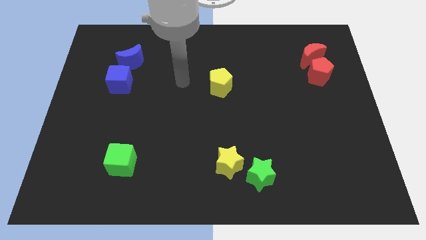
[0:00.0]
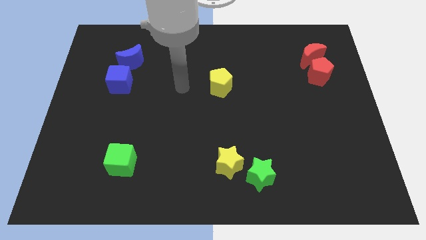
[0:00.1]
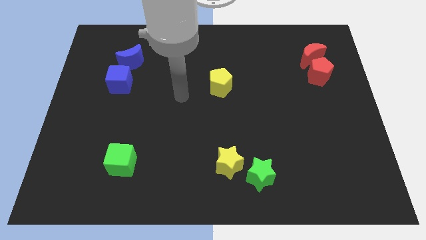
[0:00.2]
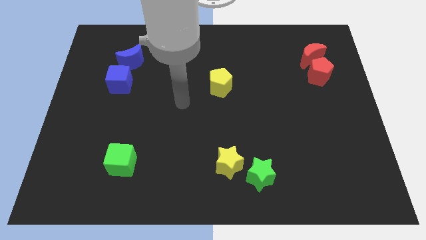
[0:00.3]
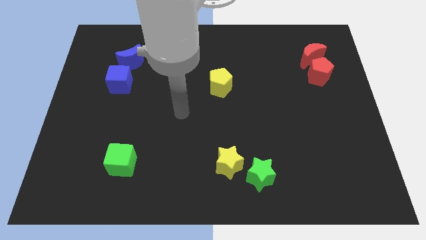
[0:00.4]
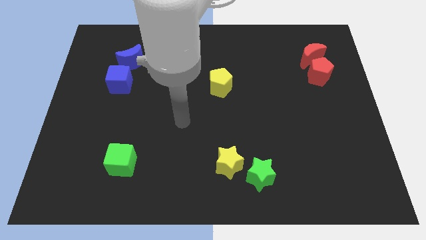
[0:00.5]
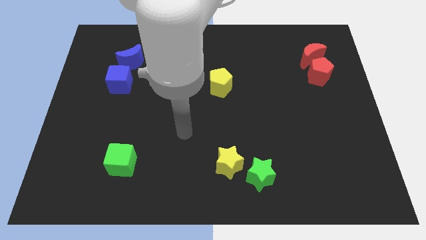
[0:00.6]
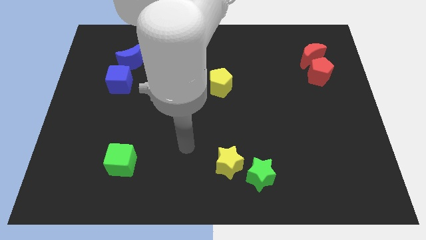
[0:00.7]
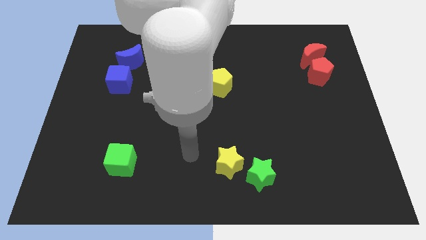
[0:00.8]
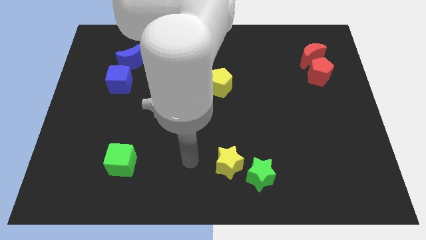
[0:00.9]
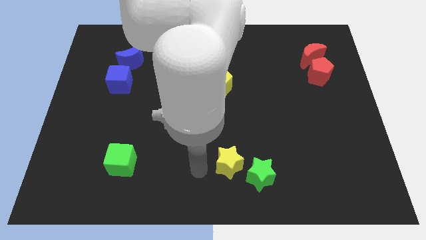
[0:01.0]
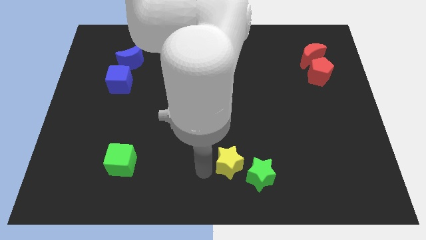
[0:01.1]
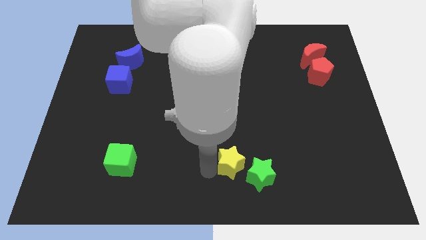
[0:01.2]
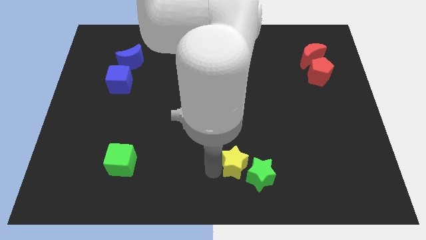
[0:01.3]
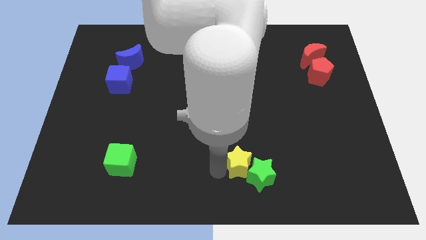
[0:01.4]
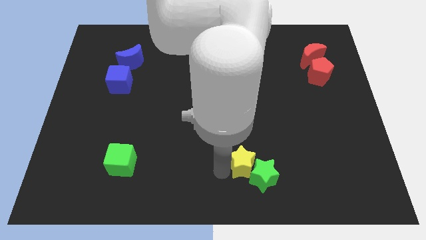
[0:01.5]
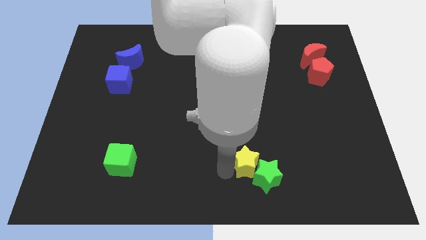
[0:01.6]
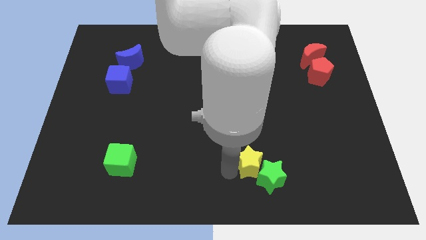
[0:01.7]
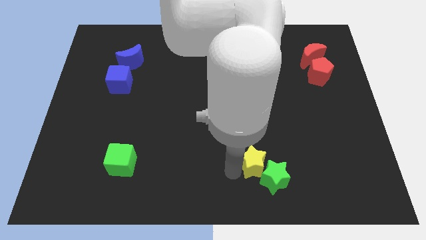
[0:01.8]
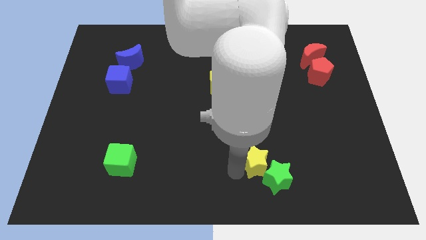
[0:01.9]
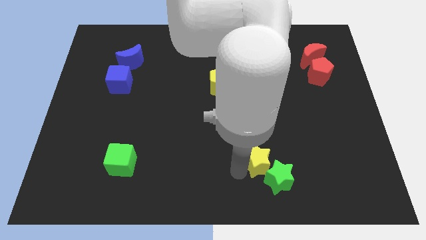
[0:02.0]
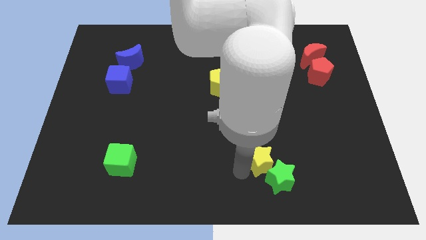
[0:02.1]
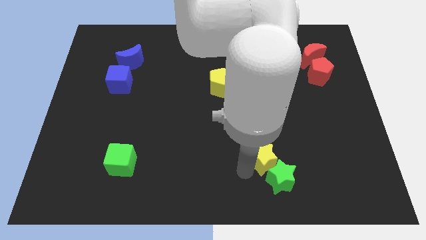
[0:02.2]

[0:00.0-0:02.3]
slightly slide the yellow star to the right

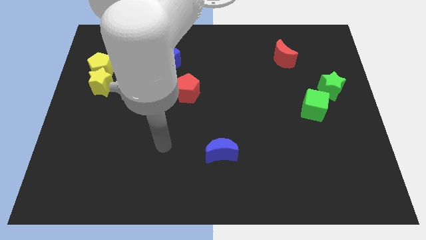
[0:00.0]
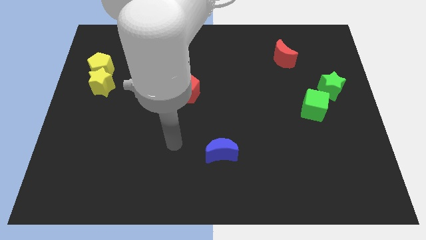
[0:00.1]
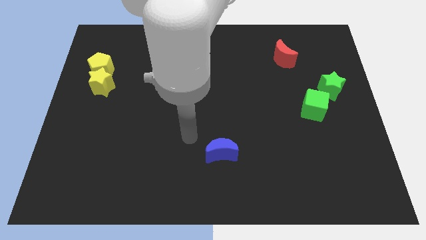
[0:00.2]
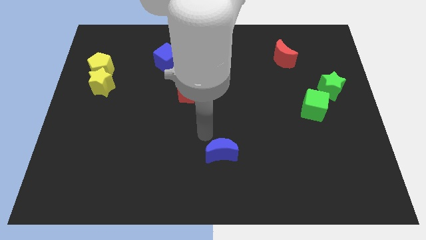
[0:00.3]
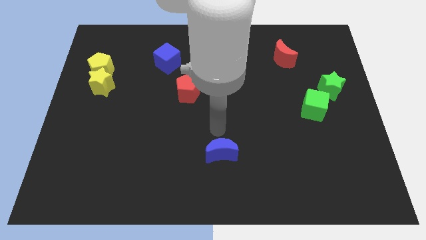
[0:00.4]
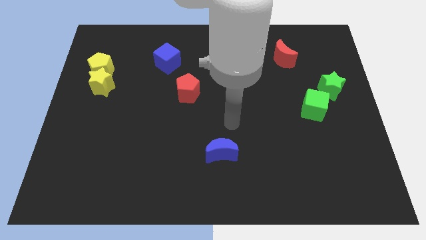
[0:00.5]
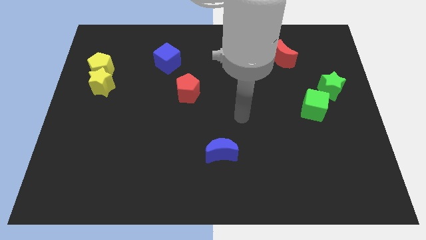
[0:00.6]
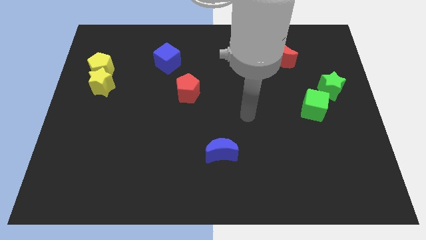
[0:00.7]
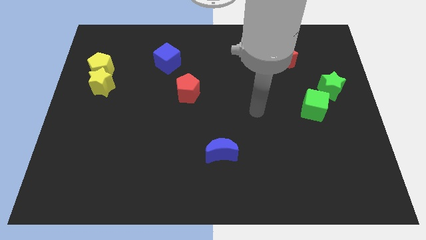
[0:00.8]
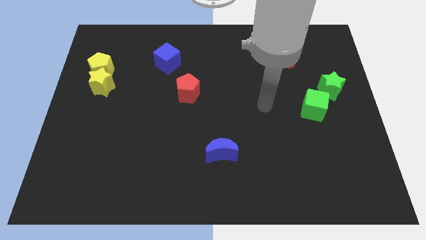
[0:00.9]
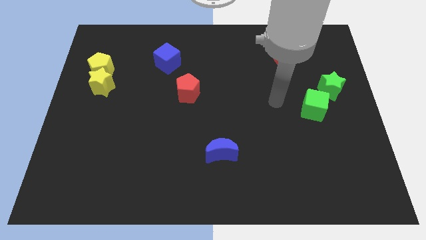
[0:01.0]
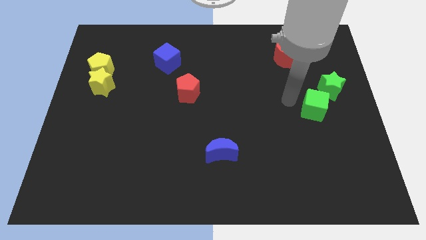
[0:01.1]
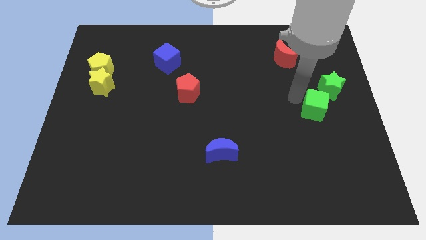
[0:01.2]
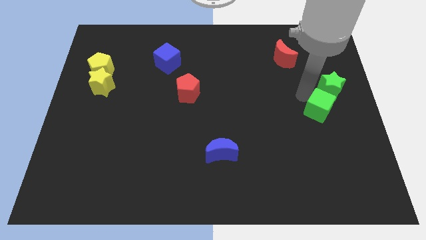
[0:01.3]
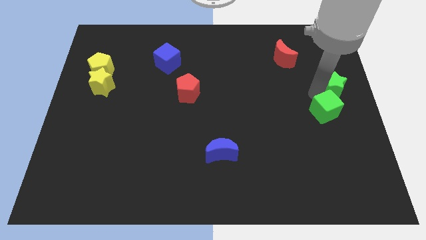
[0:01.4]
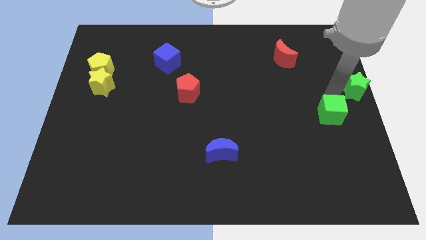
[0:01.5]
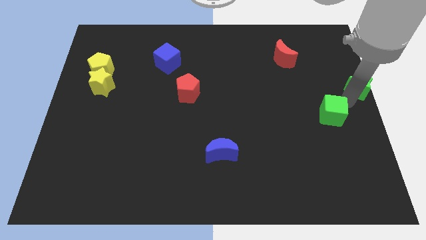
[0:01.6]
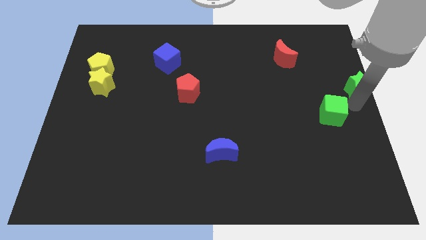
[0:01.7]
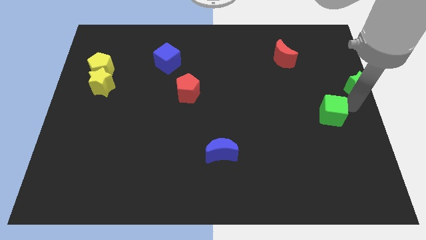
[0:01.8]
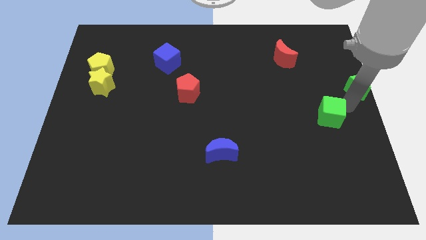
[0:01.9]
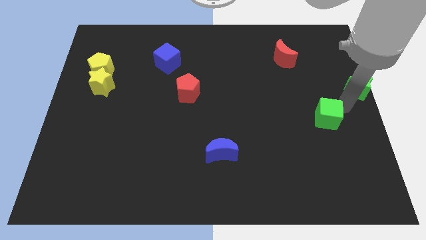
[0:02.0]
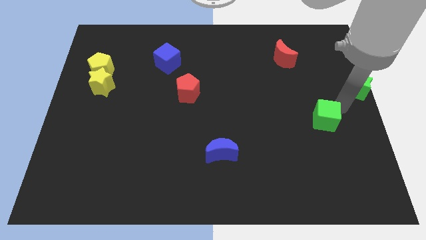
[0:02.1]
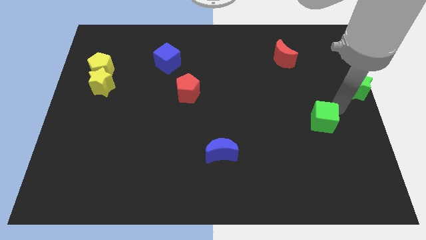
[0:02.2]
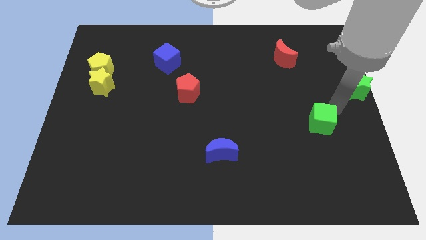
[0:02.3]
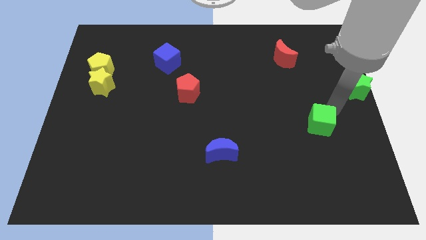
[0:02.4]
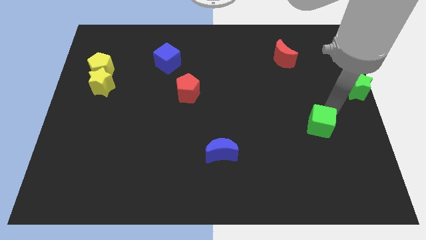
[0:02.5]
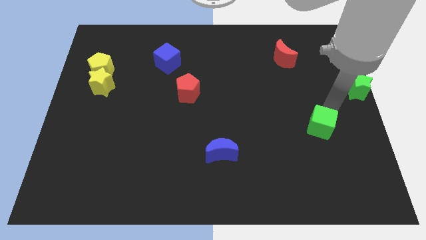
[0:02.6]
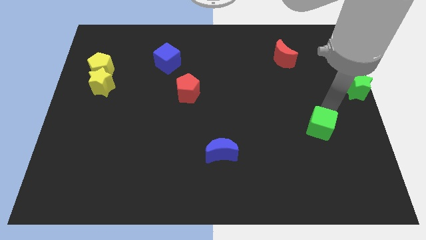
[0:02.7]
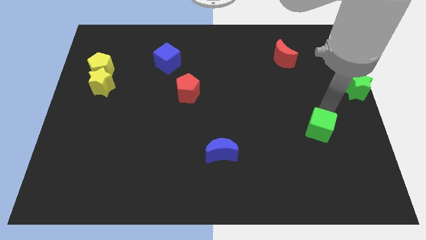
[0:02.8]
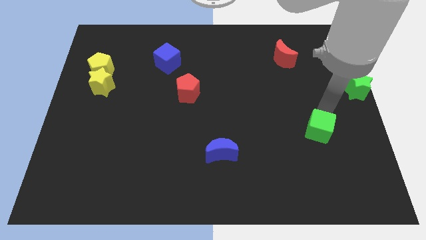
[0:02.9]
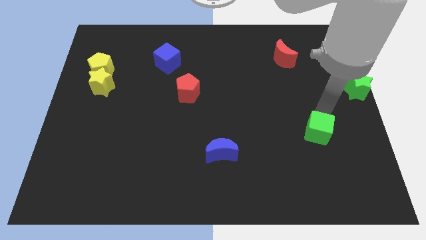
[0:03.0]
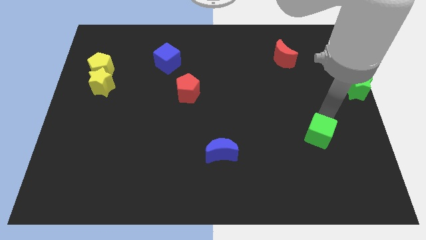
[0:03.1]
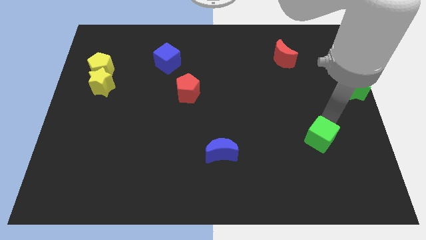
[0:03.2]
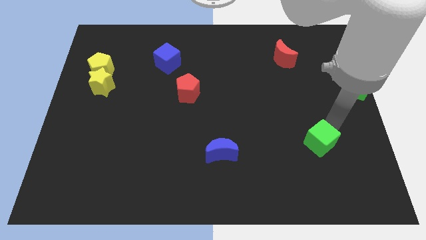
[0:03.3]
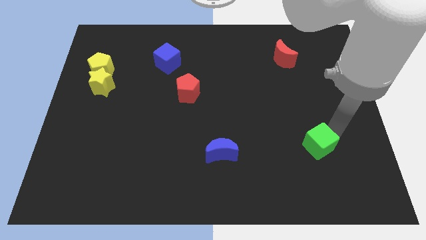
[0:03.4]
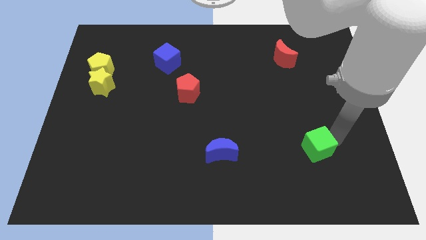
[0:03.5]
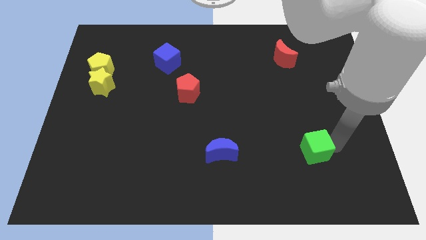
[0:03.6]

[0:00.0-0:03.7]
slightly push the green cube downwards and left diagonally

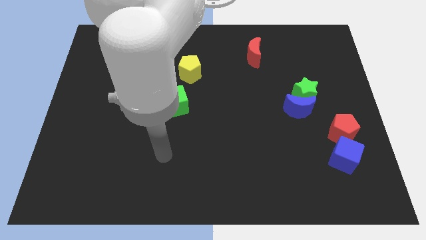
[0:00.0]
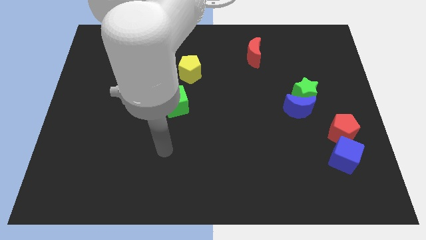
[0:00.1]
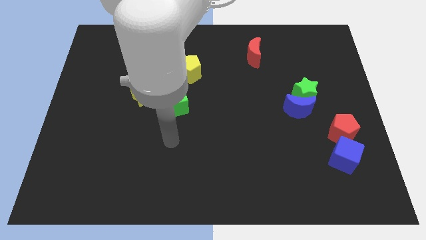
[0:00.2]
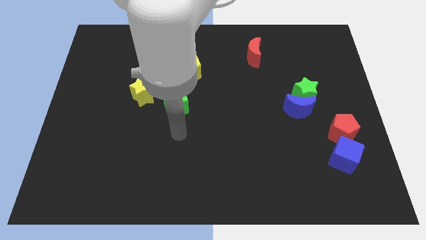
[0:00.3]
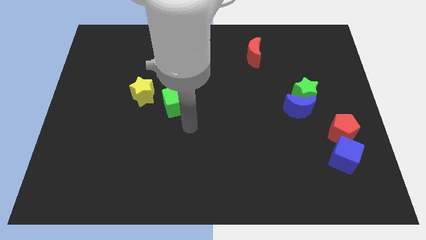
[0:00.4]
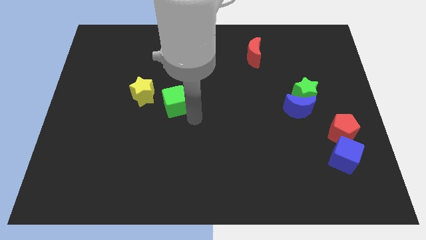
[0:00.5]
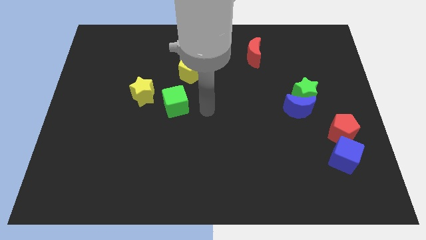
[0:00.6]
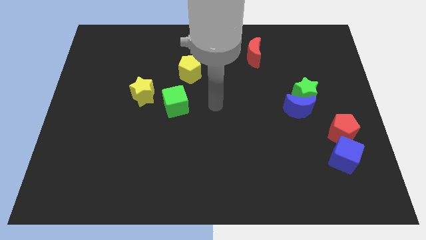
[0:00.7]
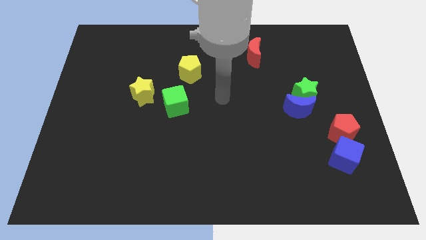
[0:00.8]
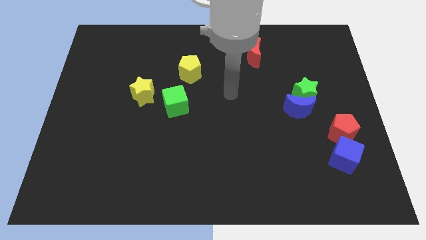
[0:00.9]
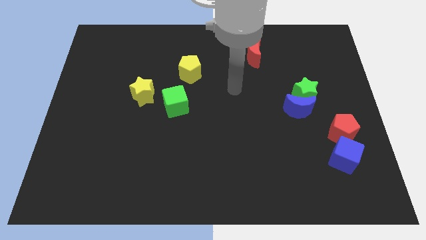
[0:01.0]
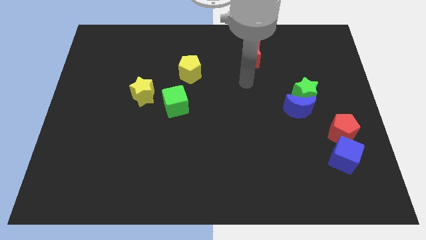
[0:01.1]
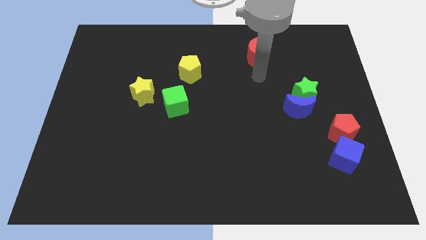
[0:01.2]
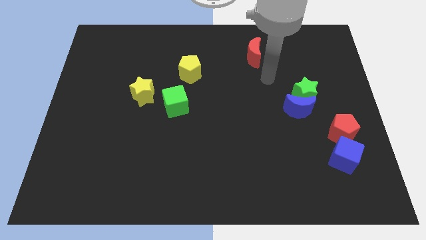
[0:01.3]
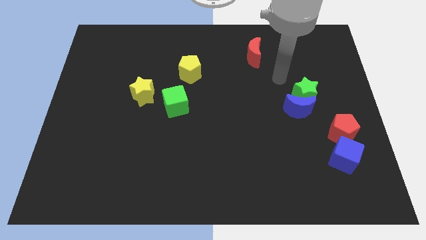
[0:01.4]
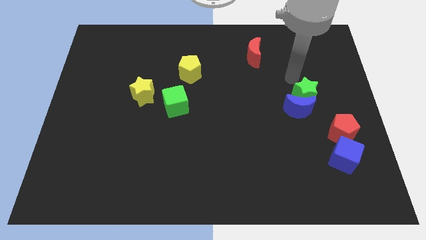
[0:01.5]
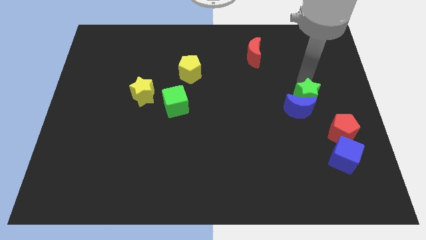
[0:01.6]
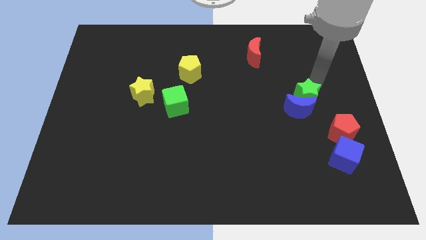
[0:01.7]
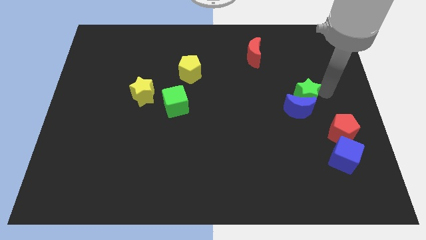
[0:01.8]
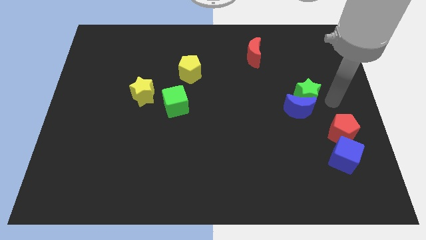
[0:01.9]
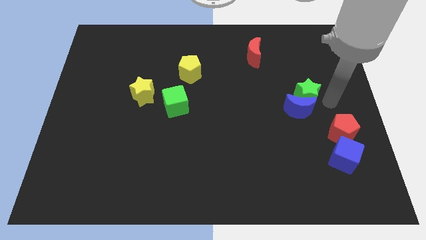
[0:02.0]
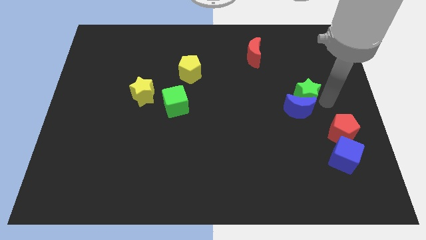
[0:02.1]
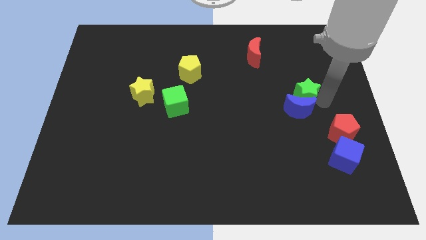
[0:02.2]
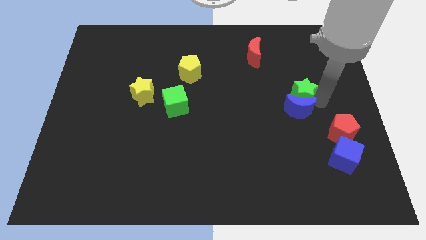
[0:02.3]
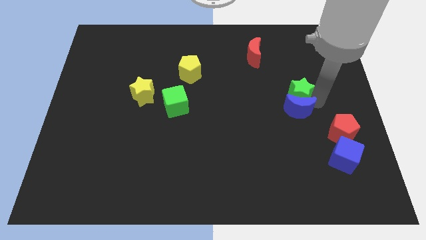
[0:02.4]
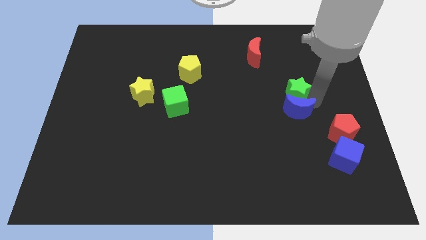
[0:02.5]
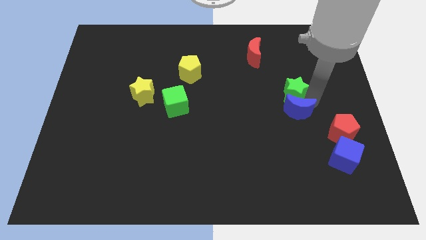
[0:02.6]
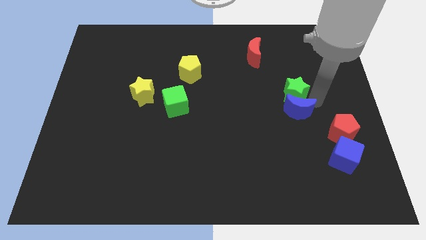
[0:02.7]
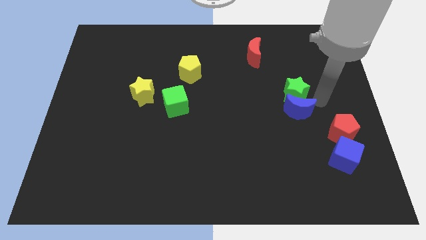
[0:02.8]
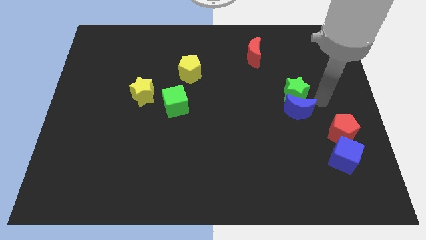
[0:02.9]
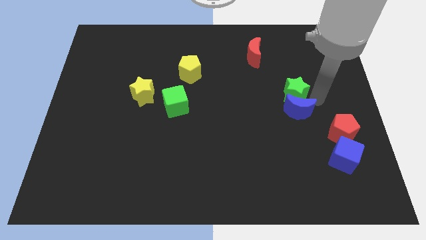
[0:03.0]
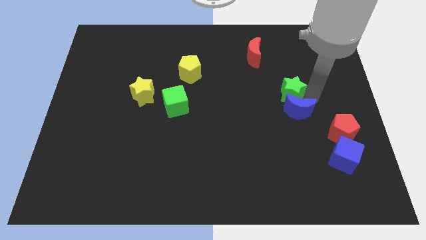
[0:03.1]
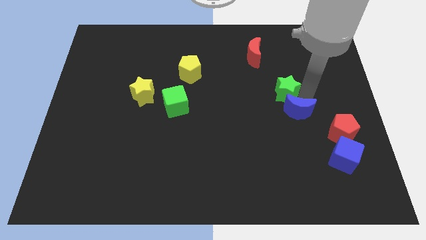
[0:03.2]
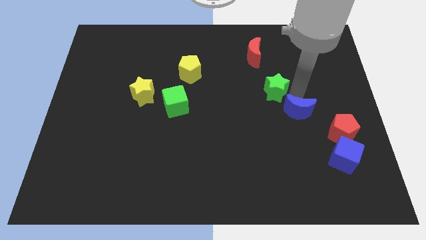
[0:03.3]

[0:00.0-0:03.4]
move the green star left a bit
